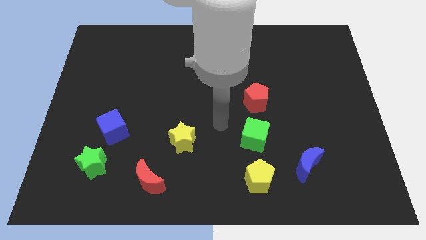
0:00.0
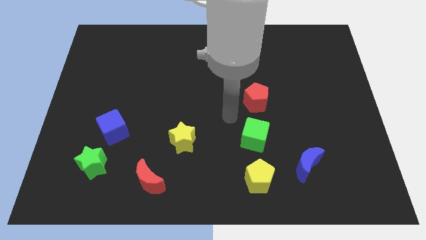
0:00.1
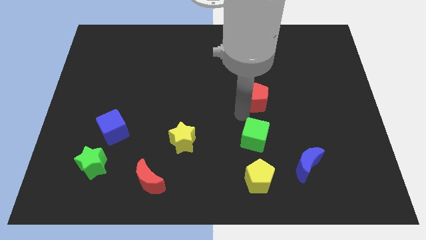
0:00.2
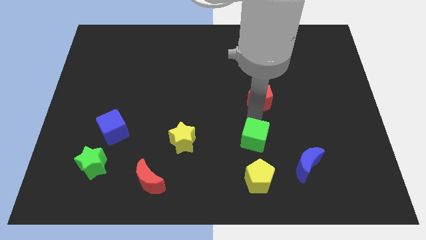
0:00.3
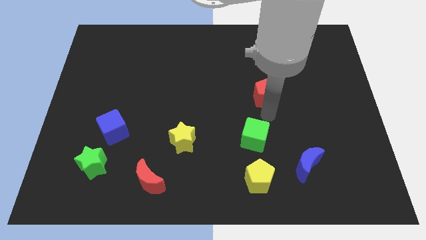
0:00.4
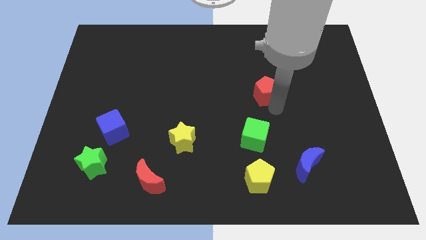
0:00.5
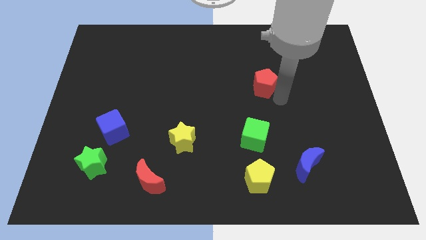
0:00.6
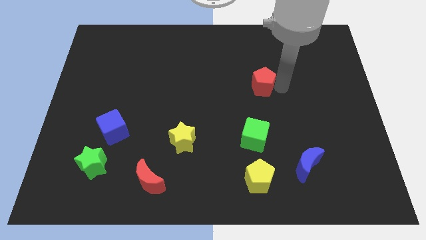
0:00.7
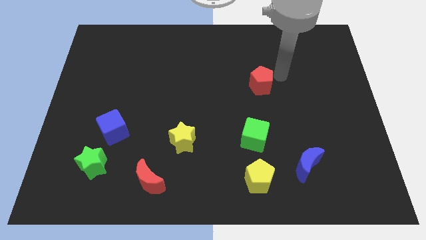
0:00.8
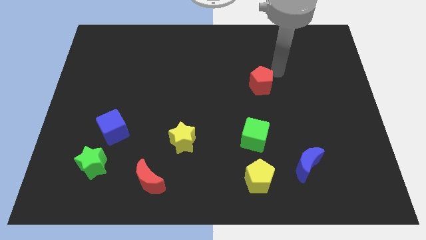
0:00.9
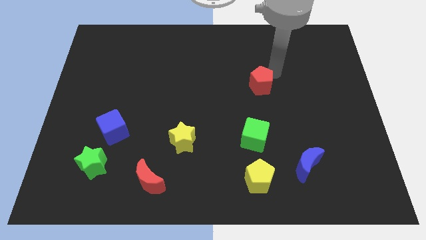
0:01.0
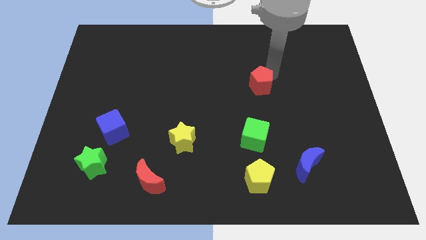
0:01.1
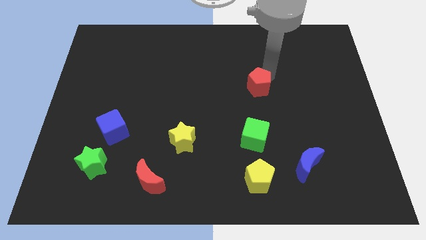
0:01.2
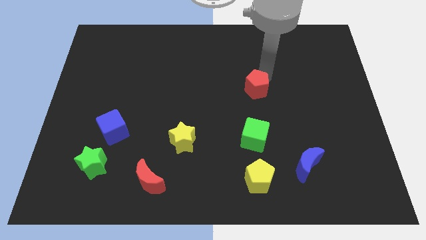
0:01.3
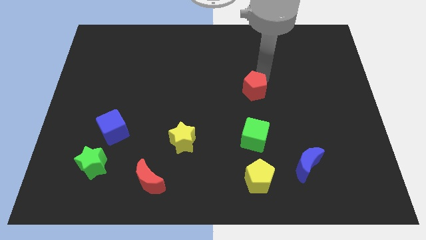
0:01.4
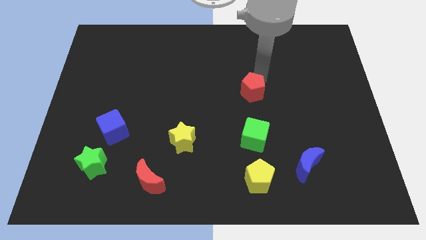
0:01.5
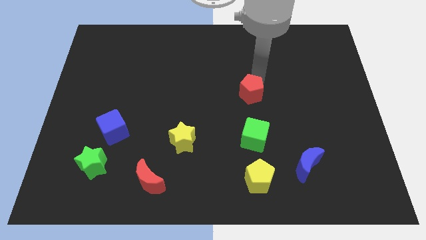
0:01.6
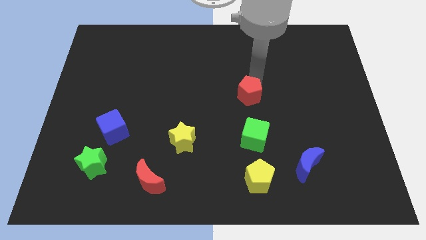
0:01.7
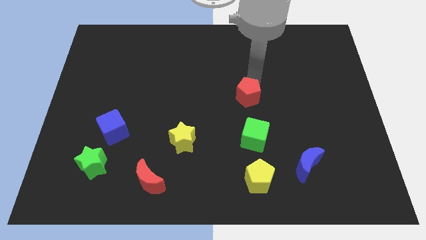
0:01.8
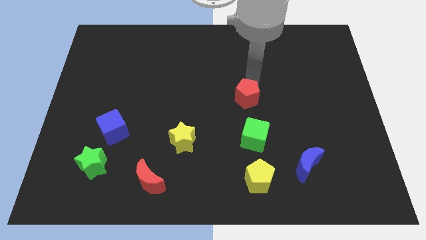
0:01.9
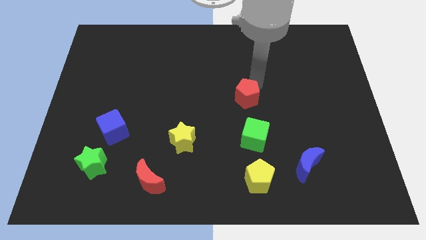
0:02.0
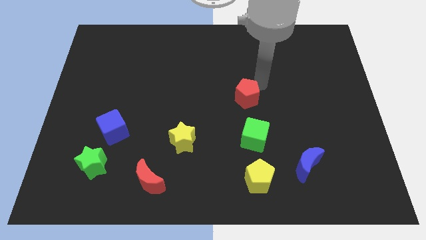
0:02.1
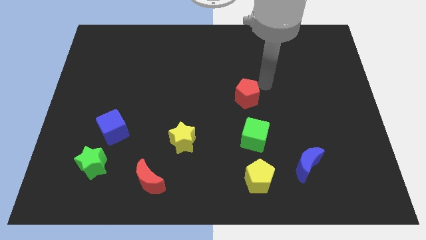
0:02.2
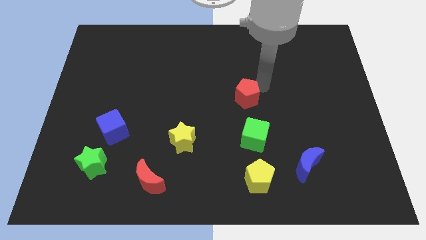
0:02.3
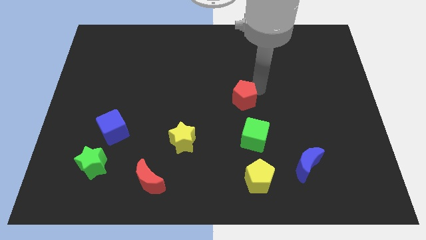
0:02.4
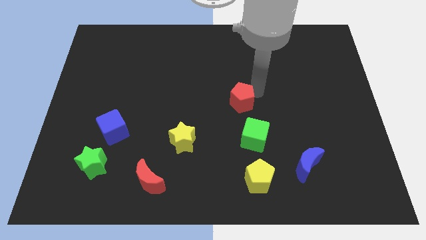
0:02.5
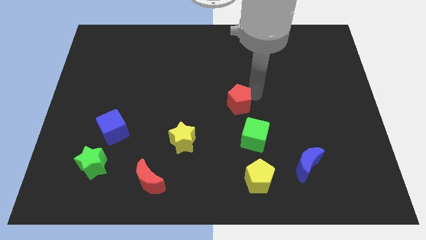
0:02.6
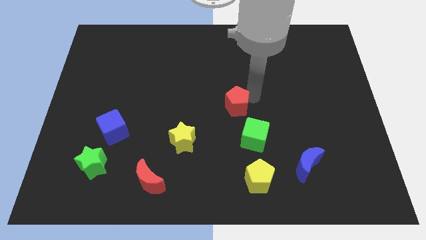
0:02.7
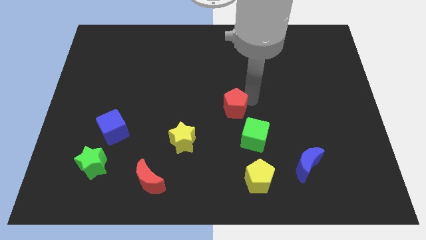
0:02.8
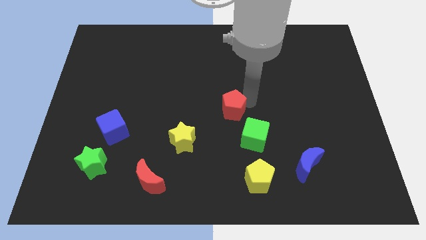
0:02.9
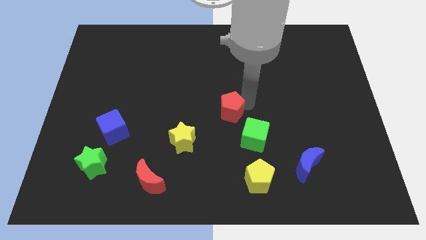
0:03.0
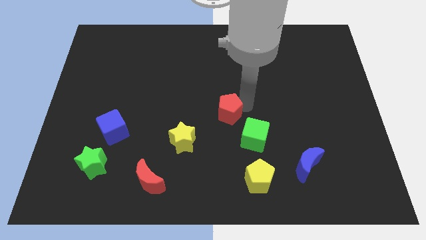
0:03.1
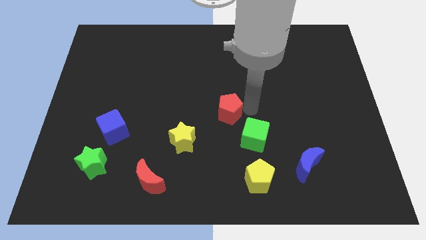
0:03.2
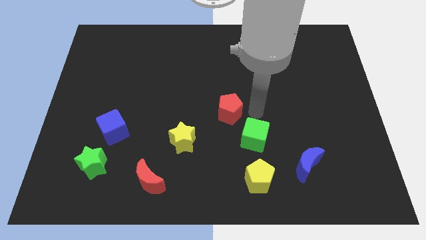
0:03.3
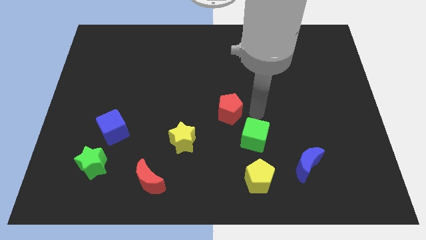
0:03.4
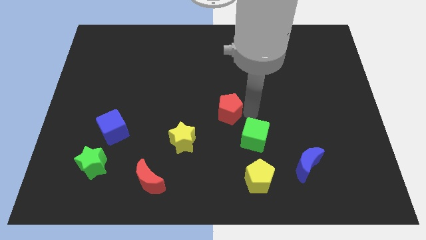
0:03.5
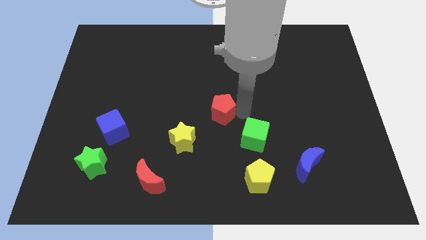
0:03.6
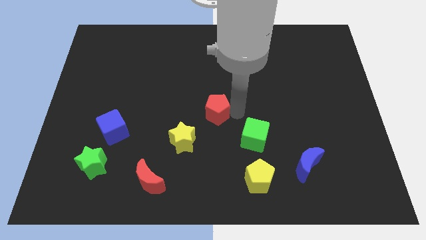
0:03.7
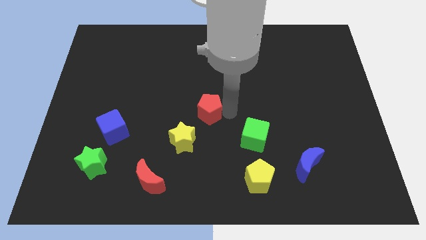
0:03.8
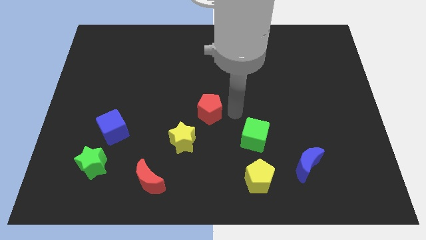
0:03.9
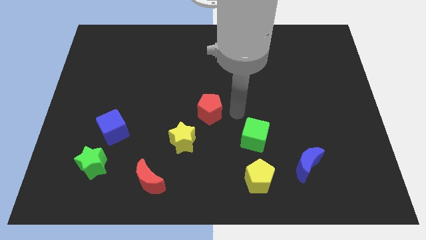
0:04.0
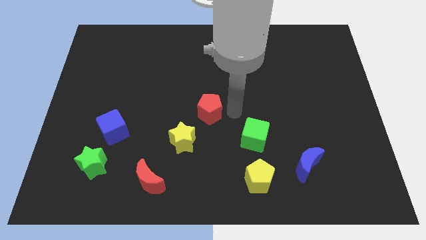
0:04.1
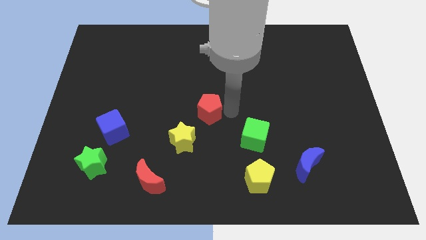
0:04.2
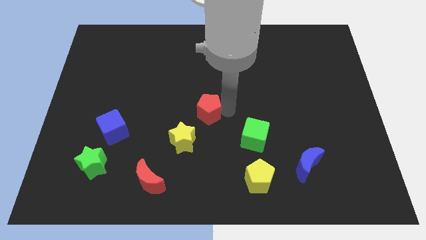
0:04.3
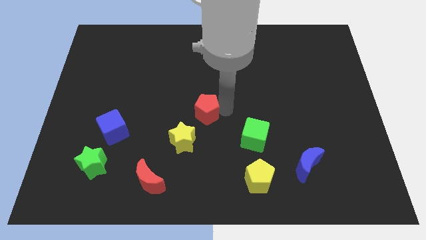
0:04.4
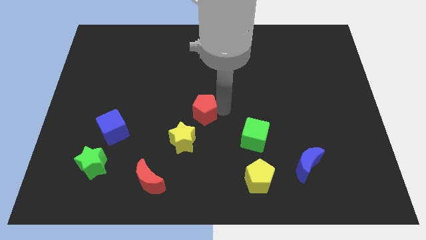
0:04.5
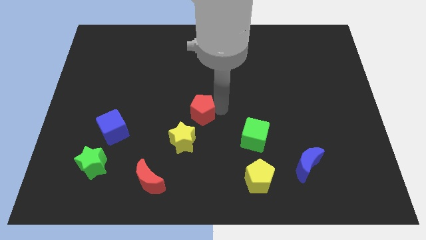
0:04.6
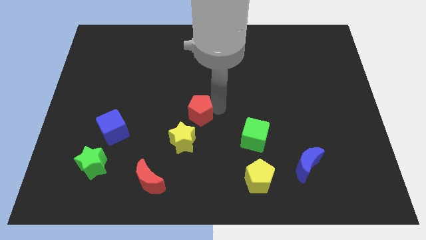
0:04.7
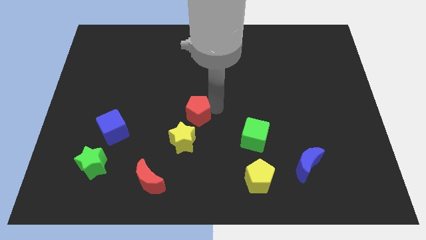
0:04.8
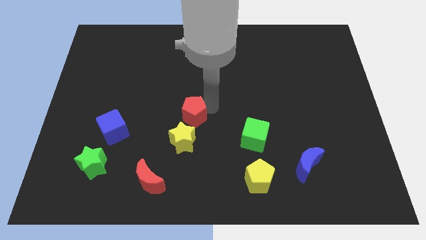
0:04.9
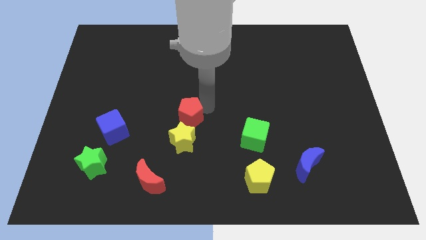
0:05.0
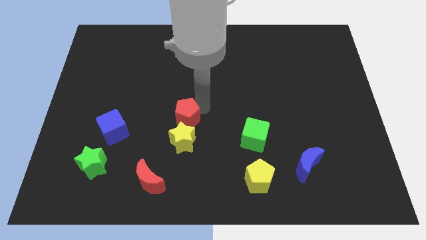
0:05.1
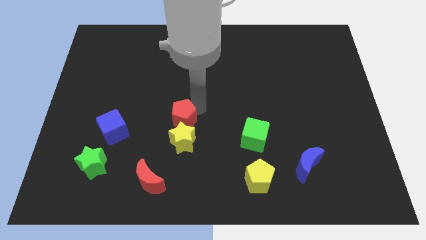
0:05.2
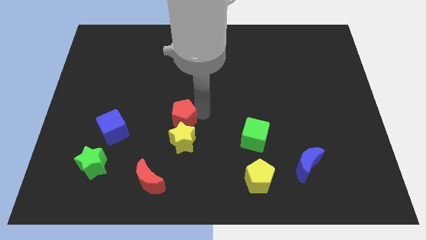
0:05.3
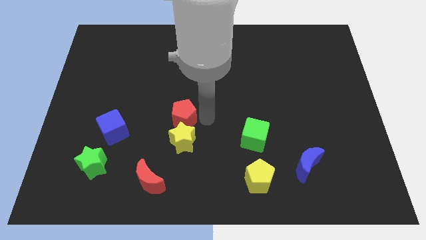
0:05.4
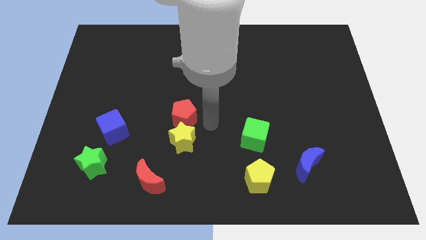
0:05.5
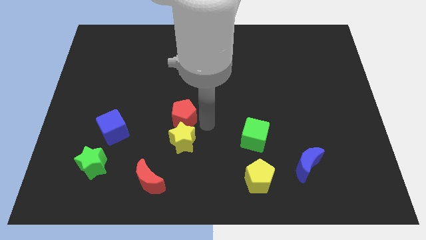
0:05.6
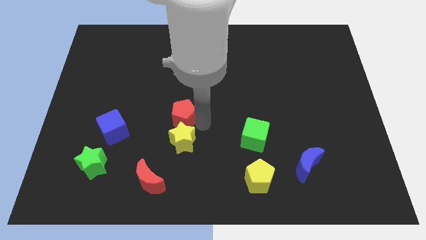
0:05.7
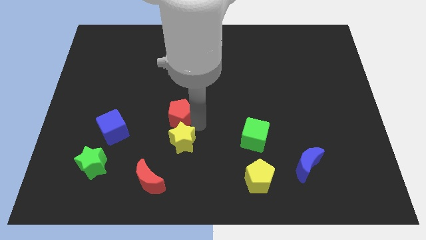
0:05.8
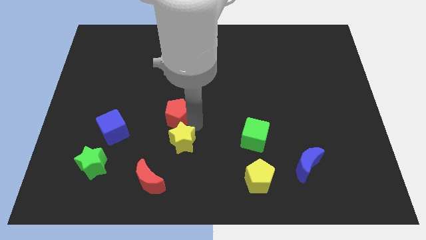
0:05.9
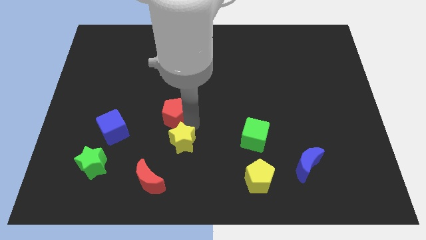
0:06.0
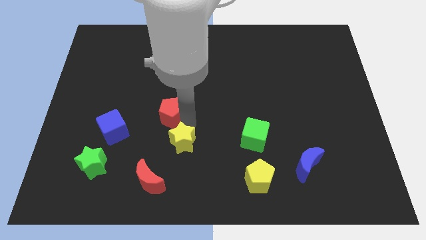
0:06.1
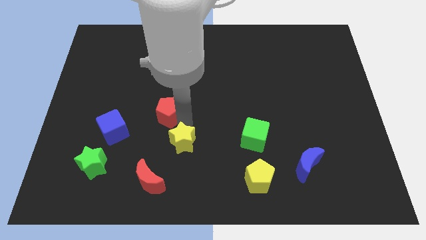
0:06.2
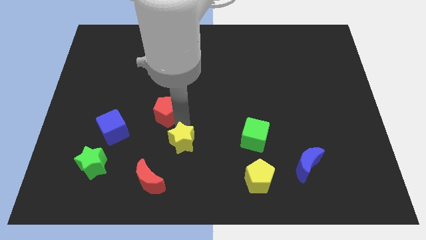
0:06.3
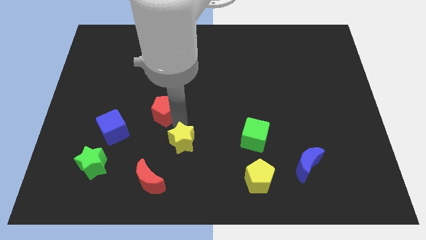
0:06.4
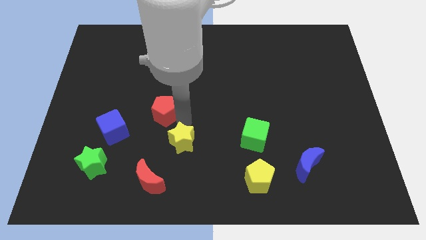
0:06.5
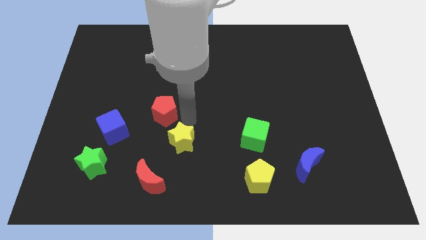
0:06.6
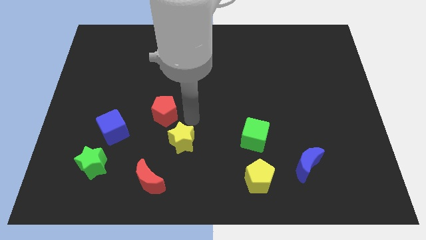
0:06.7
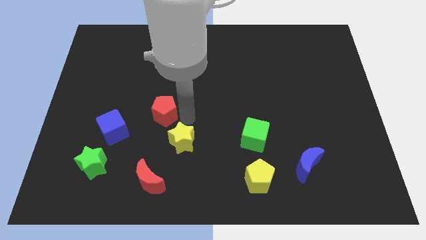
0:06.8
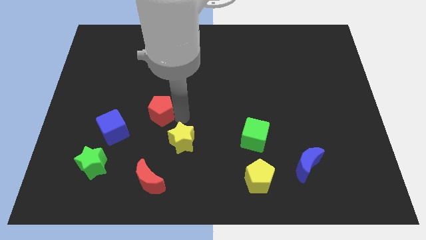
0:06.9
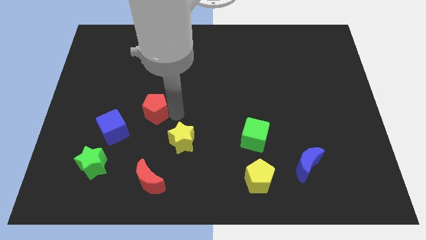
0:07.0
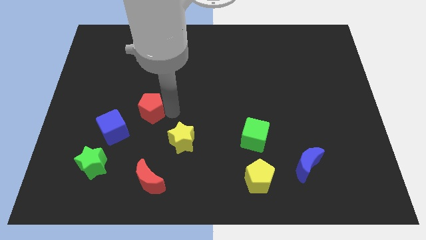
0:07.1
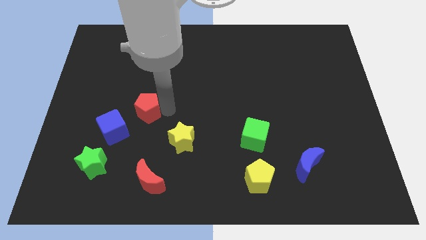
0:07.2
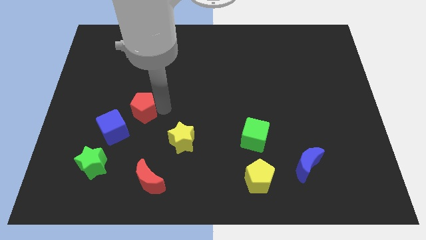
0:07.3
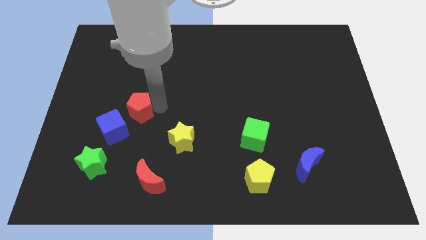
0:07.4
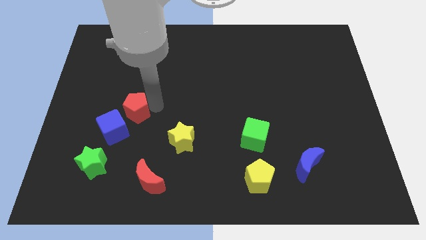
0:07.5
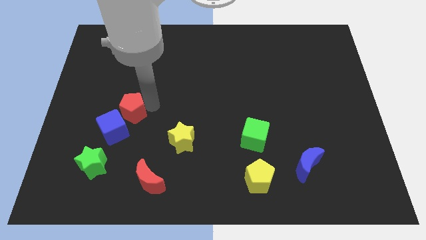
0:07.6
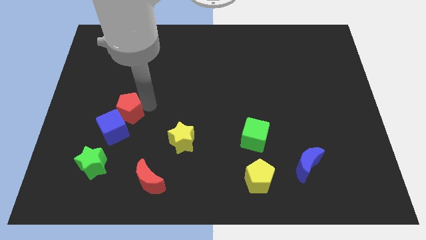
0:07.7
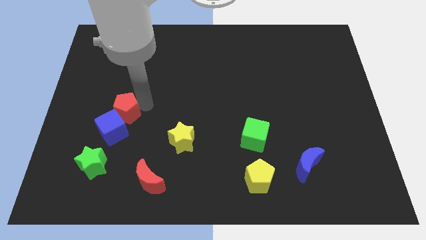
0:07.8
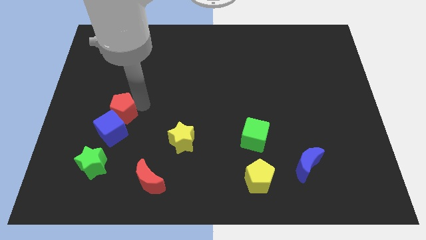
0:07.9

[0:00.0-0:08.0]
put the red pentagon above the green star
